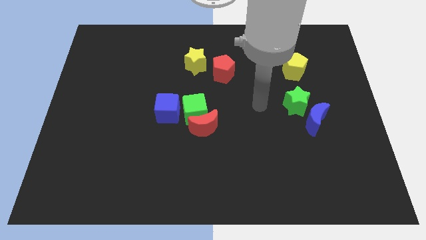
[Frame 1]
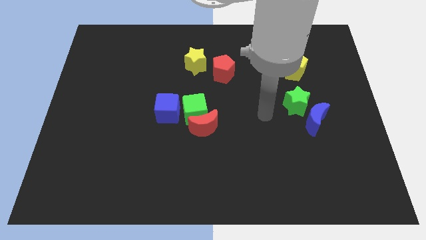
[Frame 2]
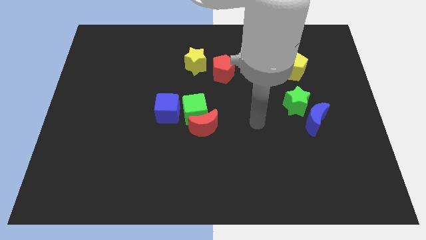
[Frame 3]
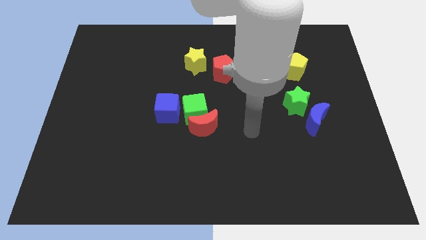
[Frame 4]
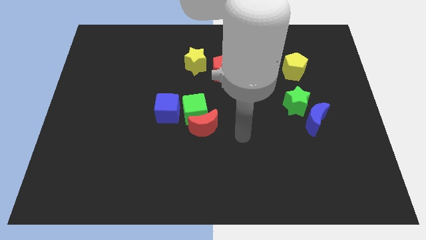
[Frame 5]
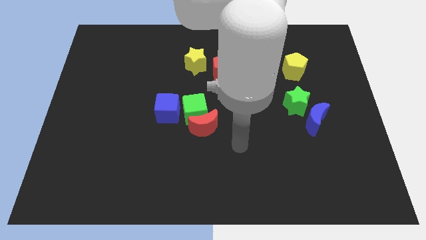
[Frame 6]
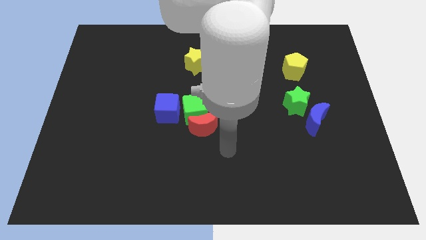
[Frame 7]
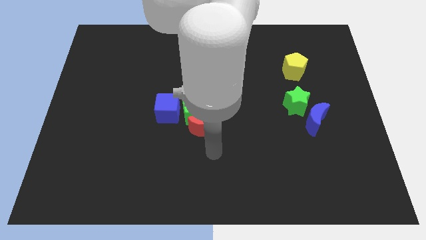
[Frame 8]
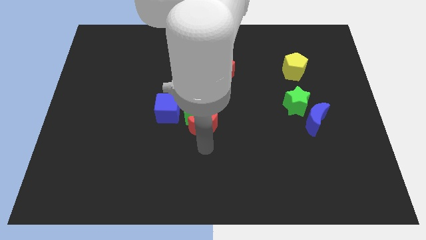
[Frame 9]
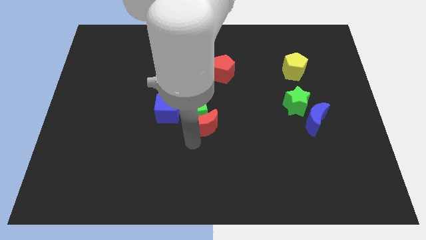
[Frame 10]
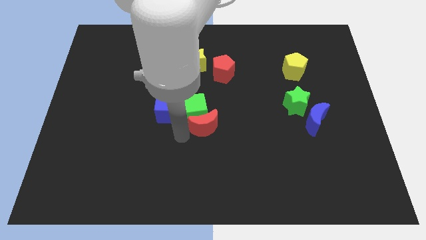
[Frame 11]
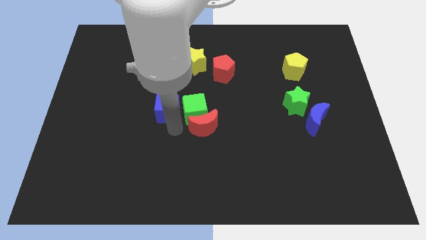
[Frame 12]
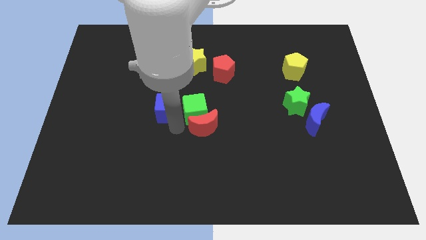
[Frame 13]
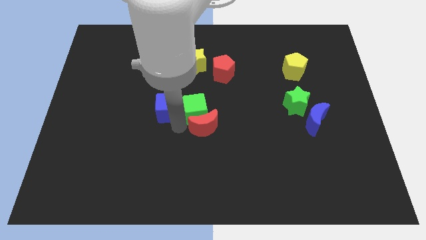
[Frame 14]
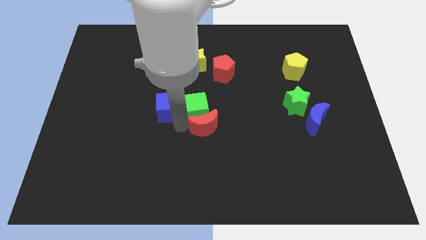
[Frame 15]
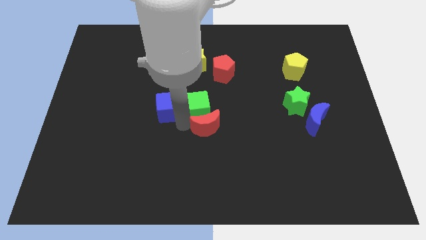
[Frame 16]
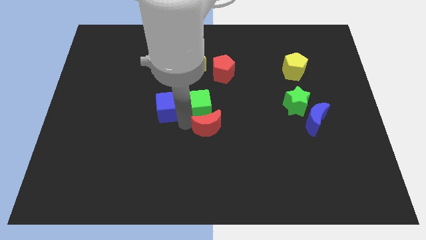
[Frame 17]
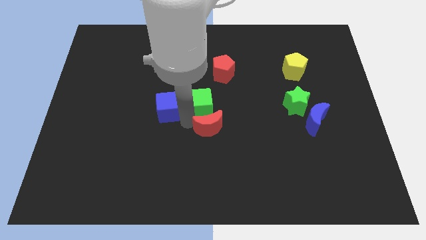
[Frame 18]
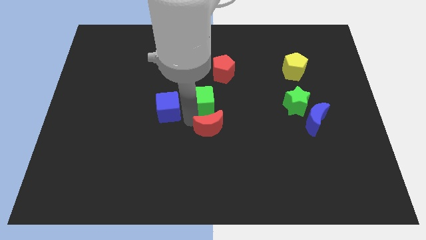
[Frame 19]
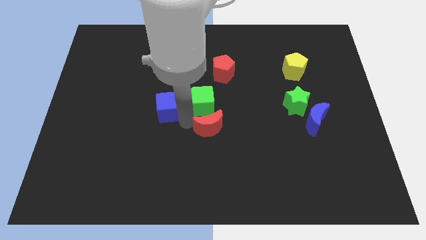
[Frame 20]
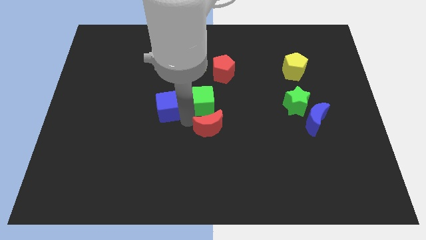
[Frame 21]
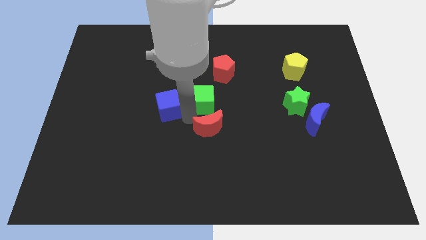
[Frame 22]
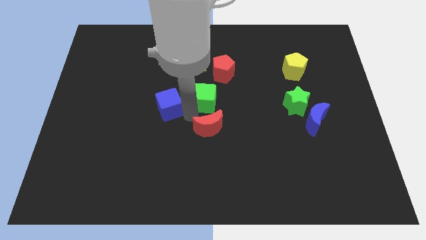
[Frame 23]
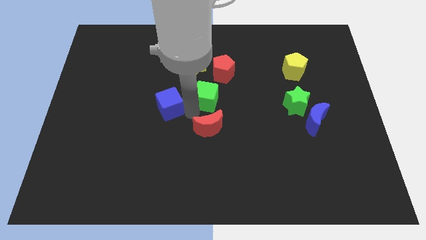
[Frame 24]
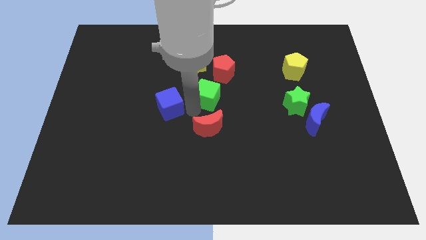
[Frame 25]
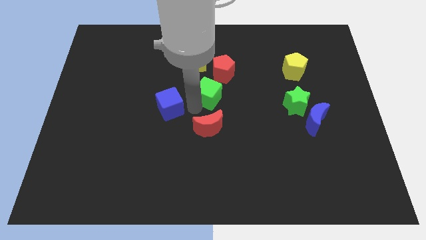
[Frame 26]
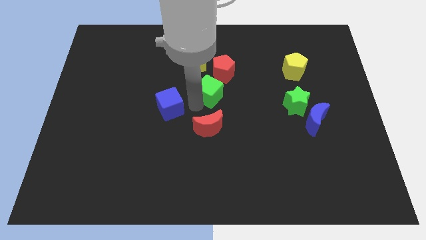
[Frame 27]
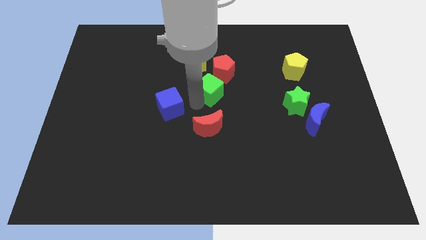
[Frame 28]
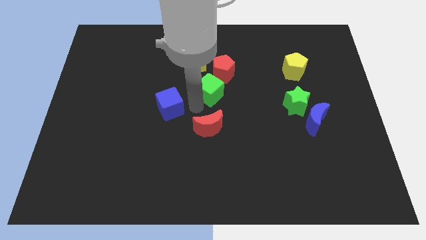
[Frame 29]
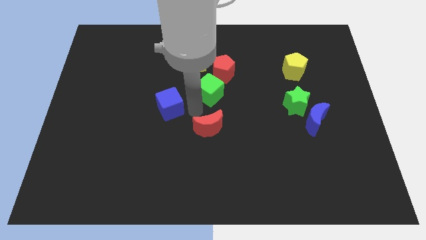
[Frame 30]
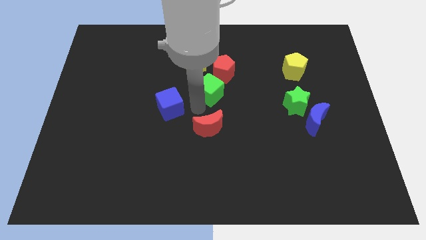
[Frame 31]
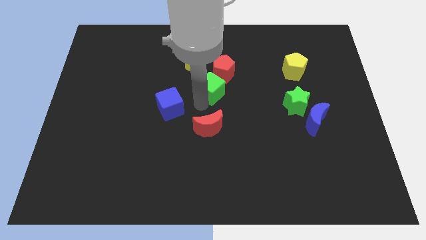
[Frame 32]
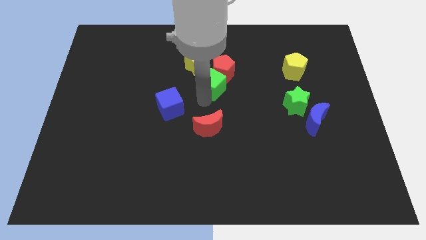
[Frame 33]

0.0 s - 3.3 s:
separate the green cube from the red moon and blue cube

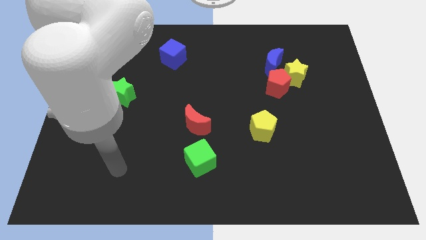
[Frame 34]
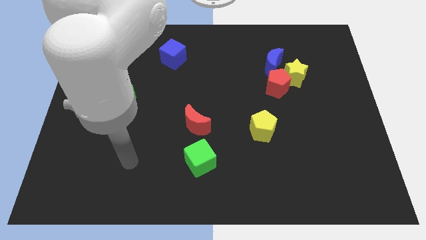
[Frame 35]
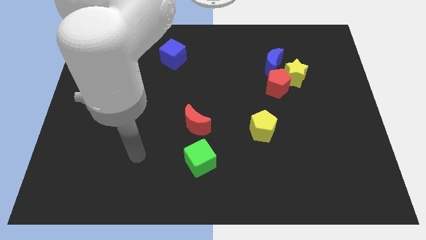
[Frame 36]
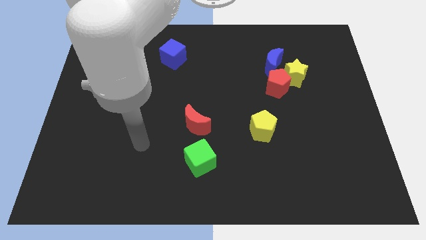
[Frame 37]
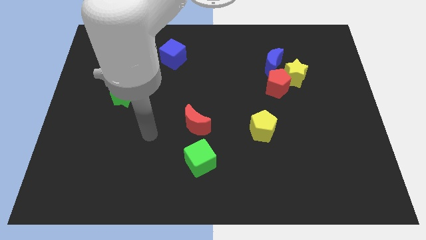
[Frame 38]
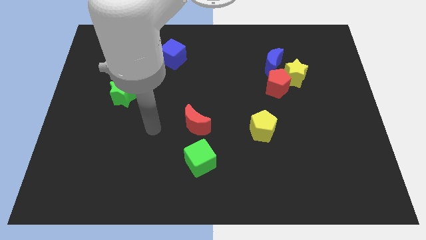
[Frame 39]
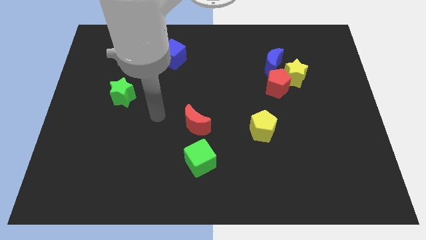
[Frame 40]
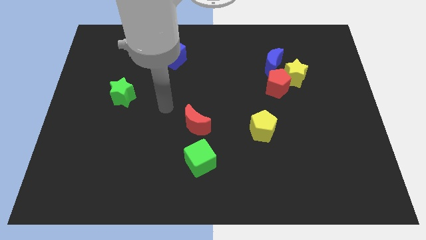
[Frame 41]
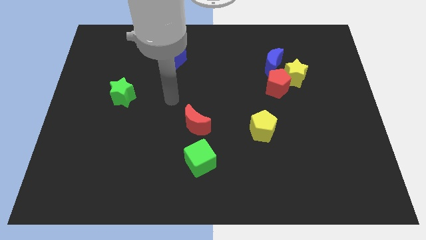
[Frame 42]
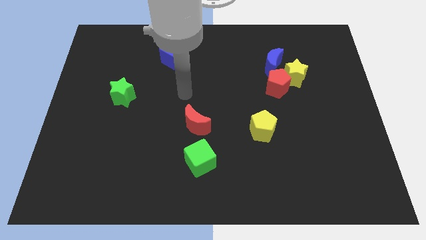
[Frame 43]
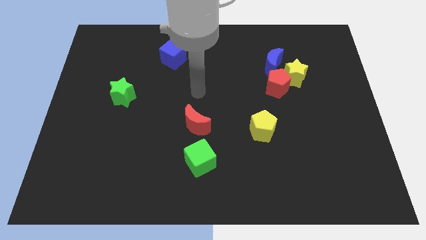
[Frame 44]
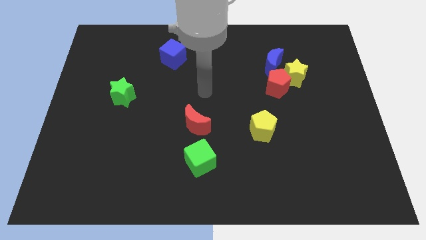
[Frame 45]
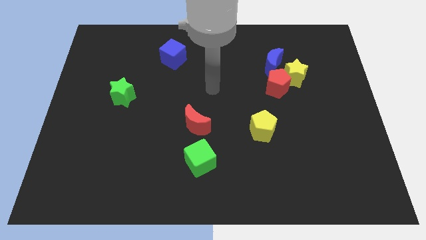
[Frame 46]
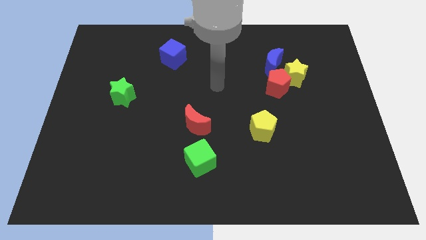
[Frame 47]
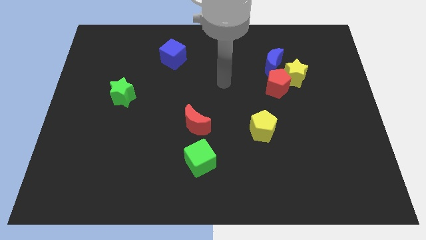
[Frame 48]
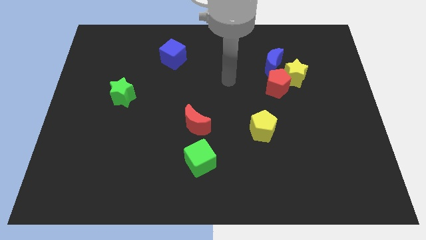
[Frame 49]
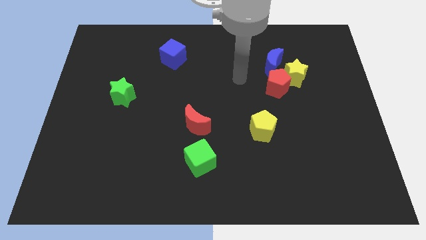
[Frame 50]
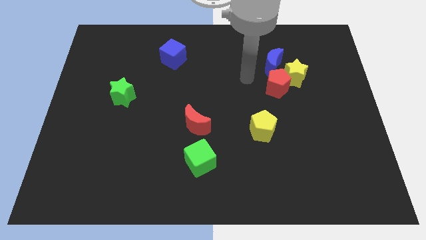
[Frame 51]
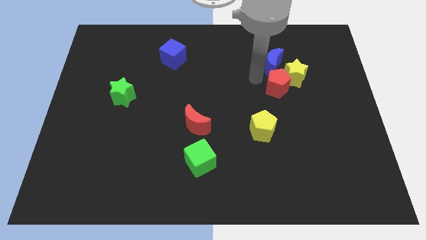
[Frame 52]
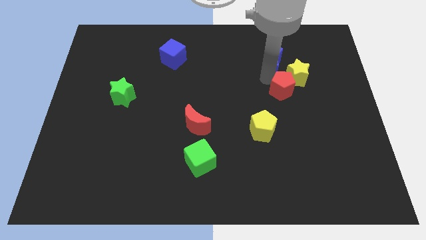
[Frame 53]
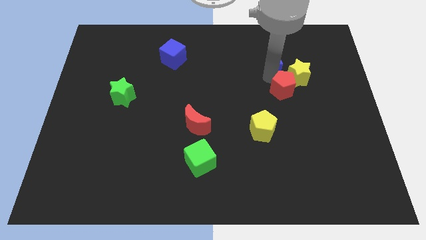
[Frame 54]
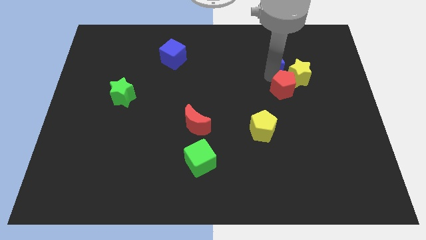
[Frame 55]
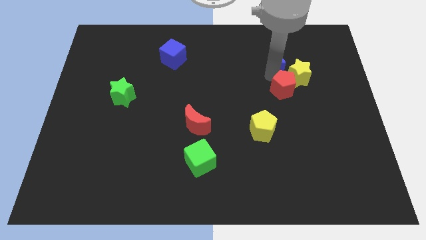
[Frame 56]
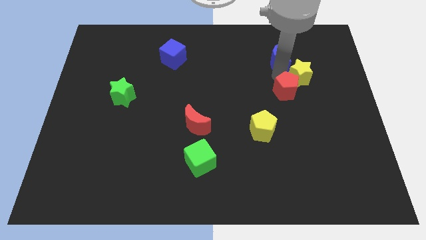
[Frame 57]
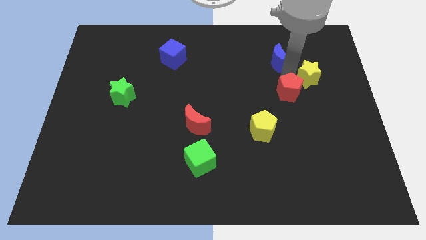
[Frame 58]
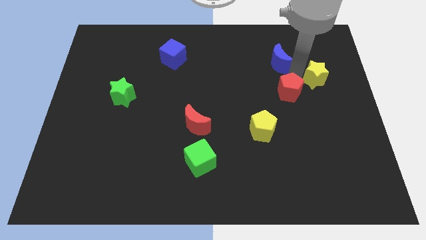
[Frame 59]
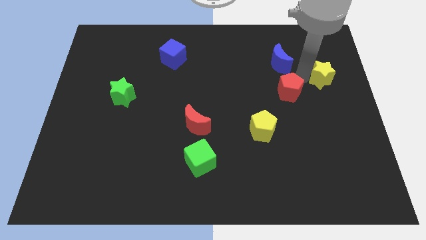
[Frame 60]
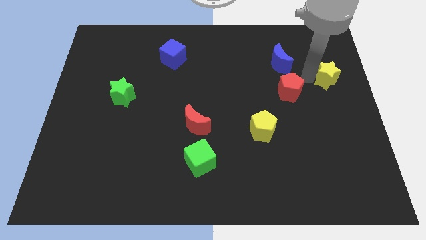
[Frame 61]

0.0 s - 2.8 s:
move the yellow star away from the red pentagon and blue moon

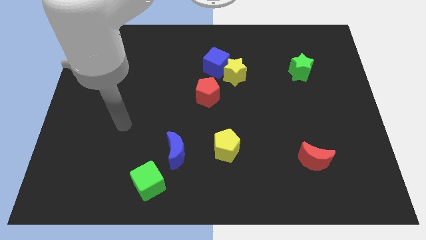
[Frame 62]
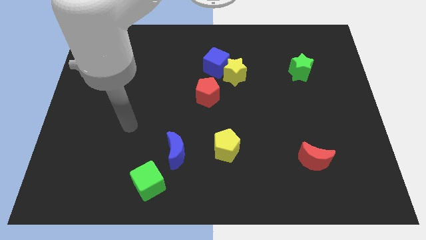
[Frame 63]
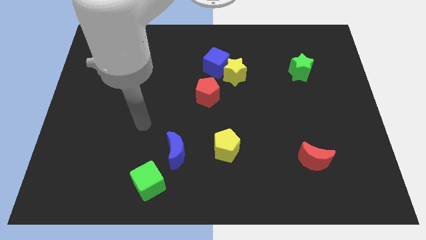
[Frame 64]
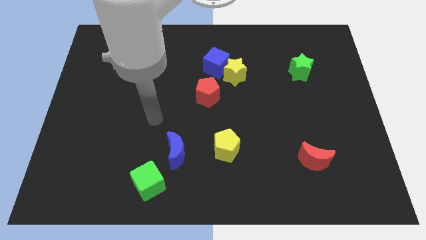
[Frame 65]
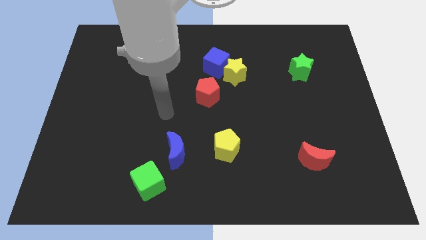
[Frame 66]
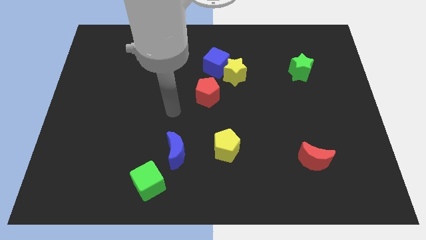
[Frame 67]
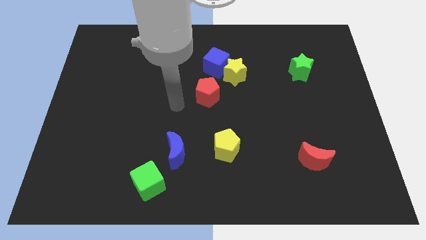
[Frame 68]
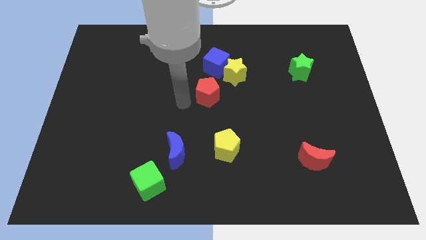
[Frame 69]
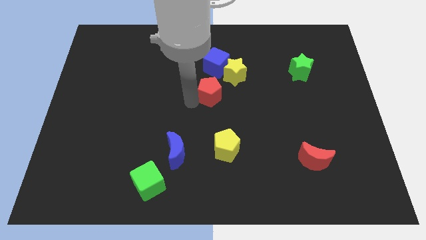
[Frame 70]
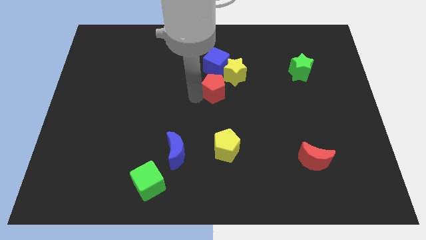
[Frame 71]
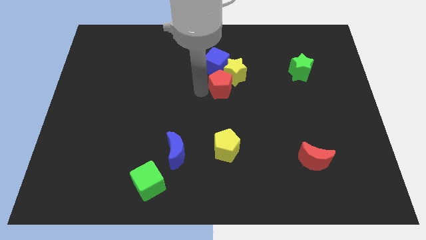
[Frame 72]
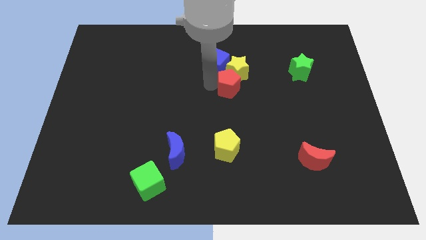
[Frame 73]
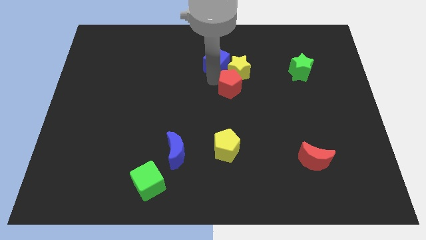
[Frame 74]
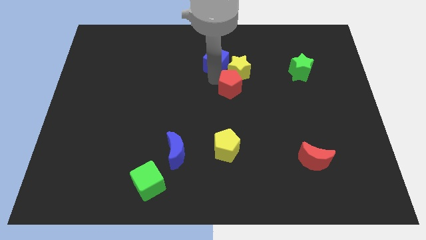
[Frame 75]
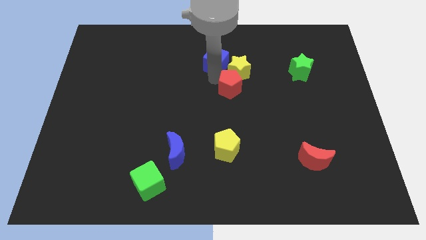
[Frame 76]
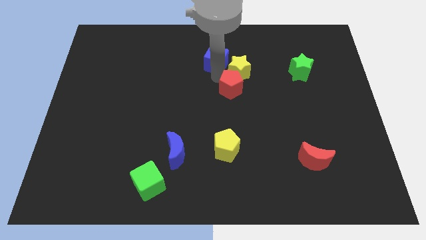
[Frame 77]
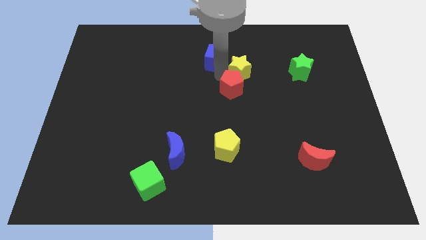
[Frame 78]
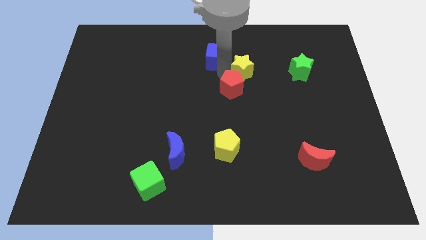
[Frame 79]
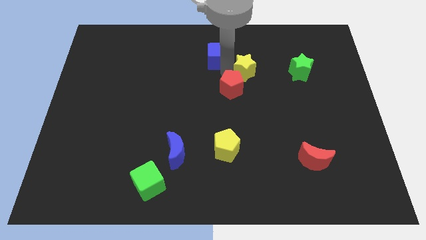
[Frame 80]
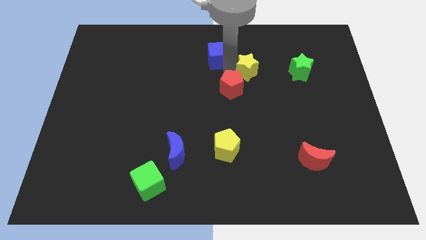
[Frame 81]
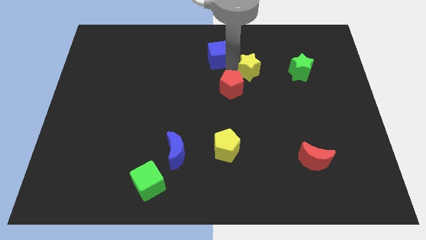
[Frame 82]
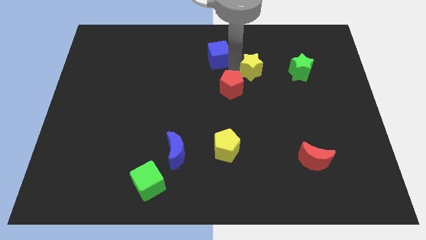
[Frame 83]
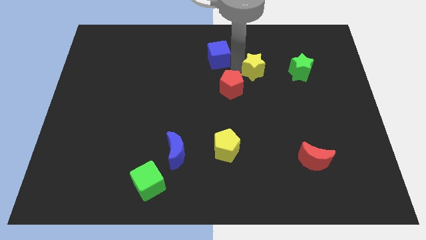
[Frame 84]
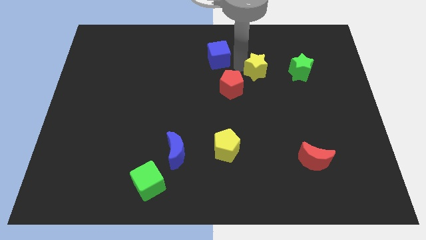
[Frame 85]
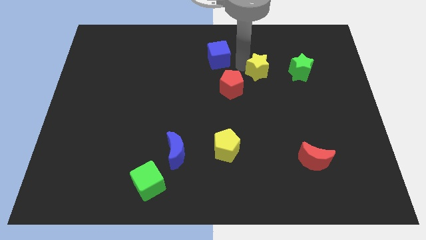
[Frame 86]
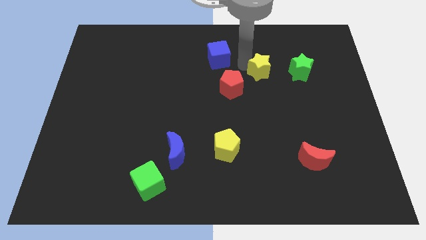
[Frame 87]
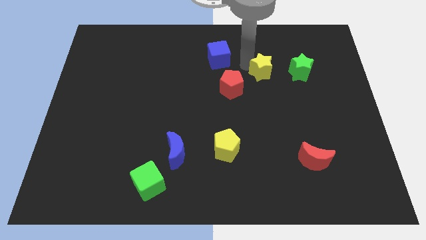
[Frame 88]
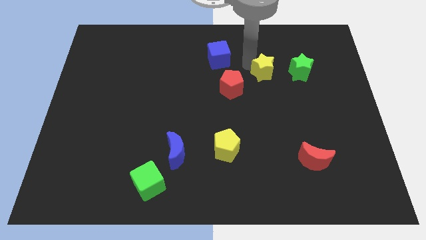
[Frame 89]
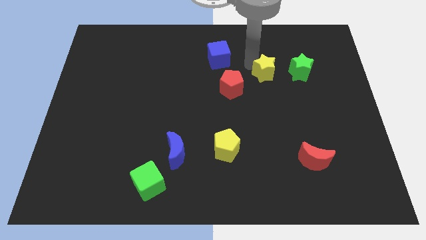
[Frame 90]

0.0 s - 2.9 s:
pull the yellow star apart from the blue cube and red pentagon

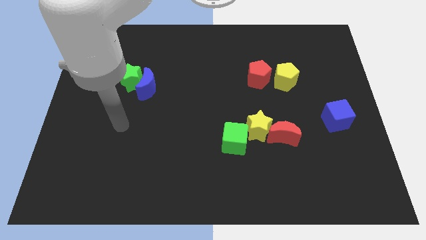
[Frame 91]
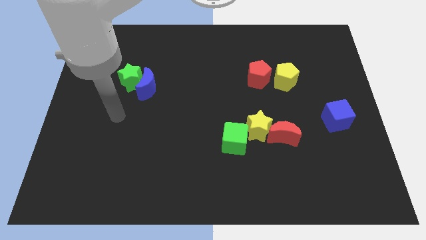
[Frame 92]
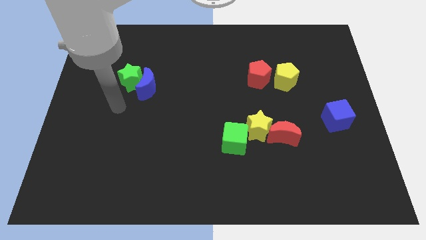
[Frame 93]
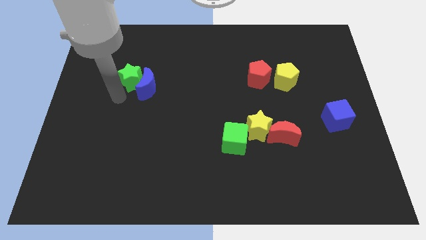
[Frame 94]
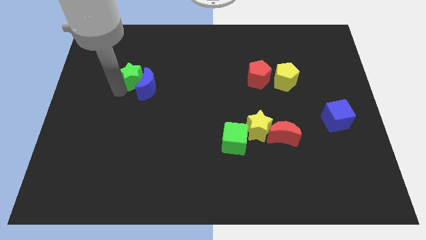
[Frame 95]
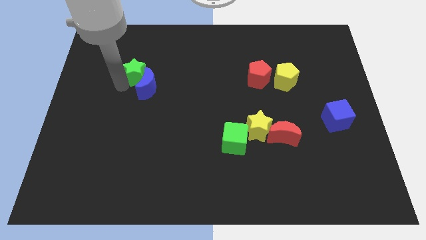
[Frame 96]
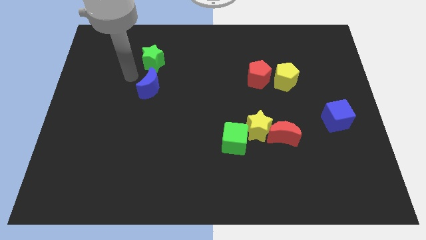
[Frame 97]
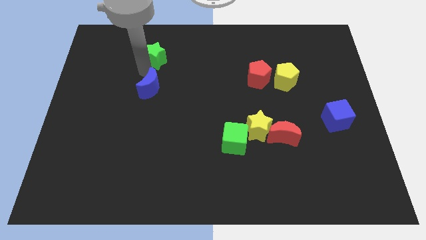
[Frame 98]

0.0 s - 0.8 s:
separate the blue moon from the green star
